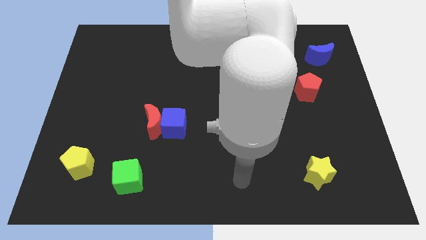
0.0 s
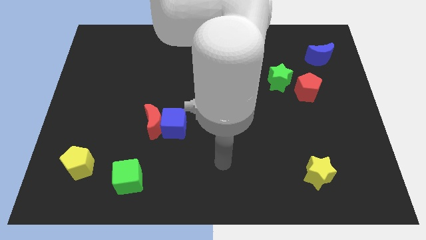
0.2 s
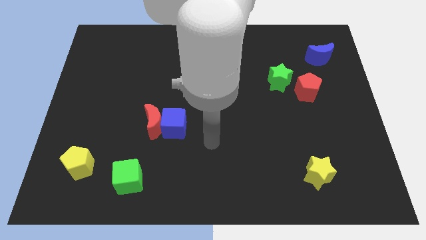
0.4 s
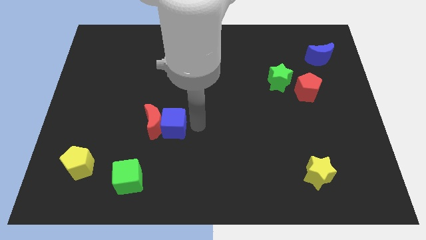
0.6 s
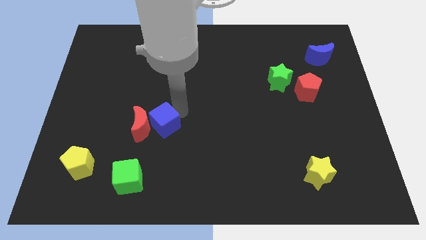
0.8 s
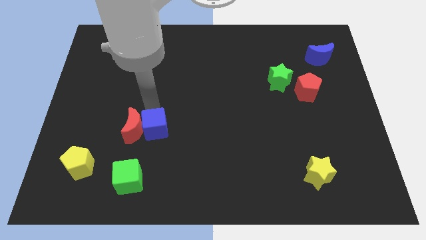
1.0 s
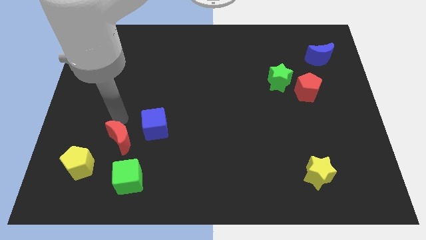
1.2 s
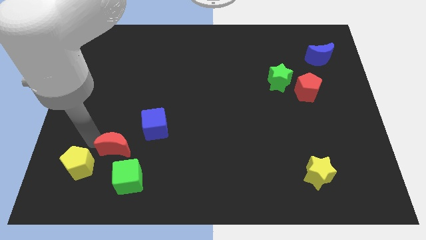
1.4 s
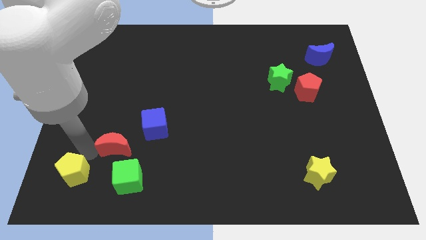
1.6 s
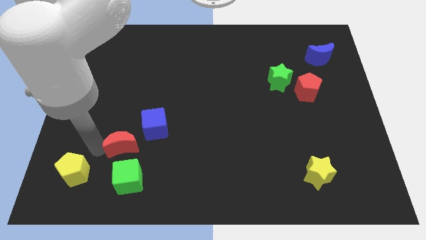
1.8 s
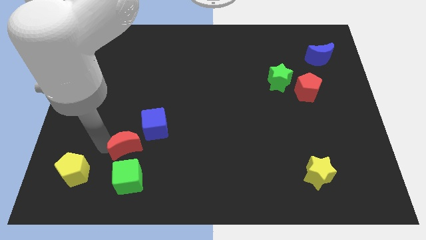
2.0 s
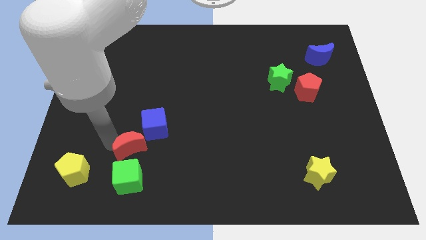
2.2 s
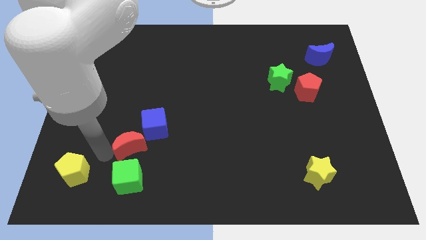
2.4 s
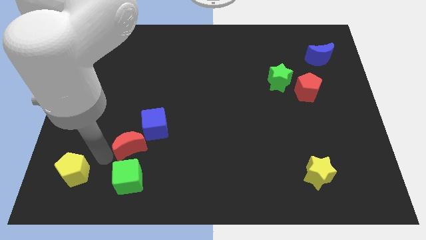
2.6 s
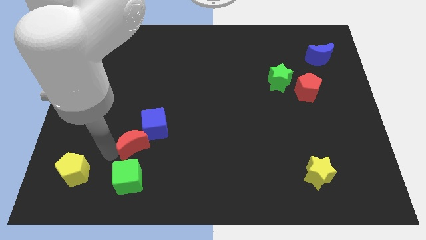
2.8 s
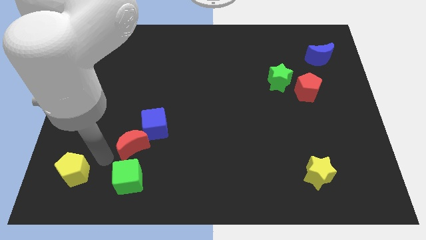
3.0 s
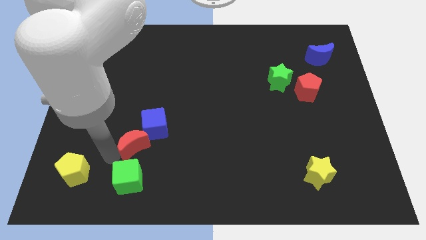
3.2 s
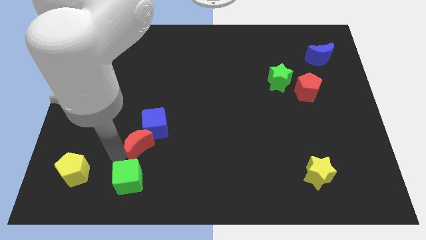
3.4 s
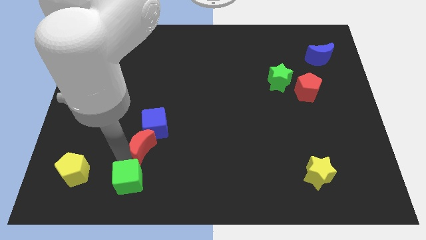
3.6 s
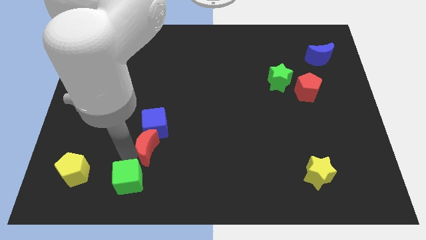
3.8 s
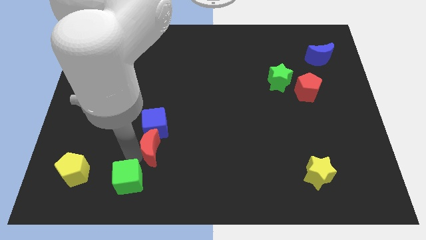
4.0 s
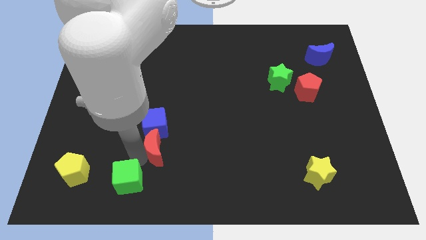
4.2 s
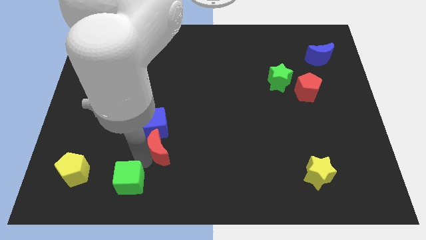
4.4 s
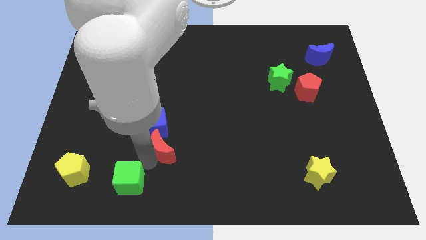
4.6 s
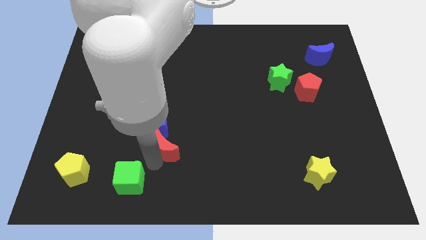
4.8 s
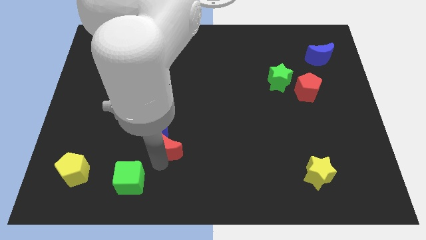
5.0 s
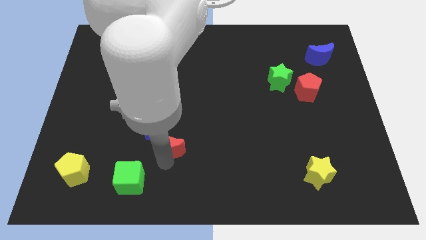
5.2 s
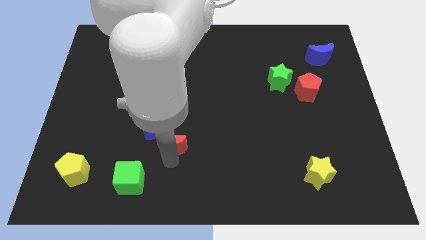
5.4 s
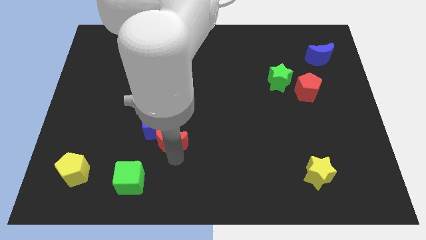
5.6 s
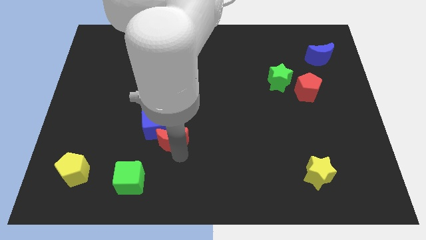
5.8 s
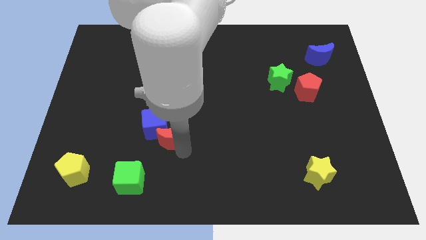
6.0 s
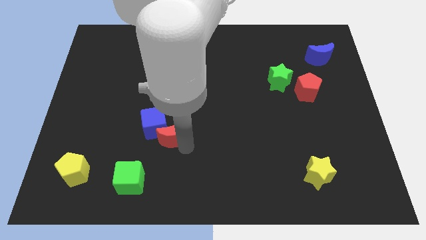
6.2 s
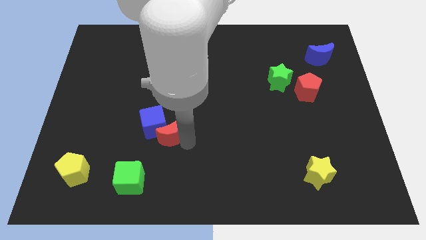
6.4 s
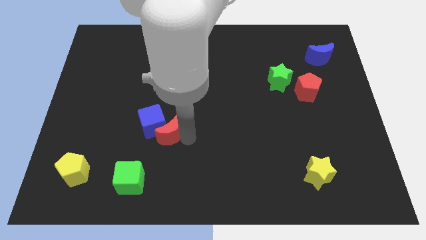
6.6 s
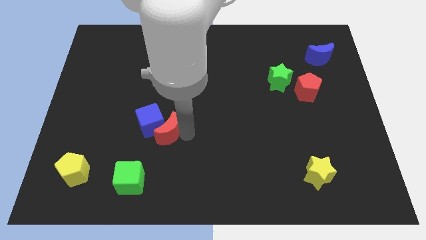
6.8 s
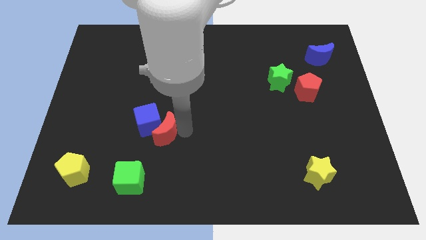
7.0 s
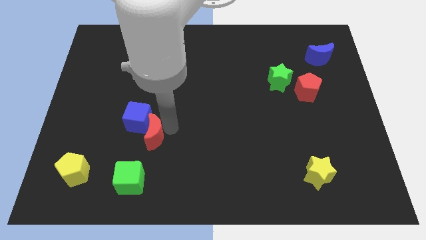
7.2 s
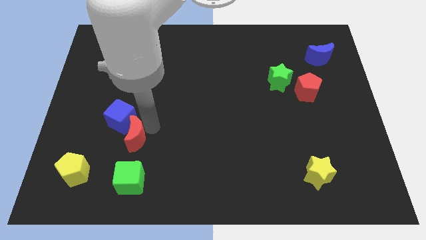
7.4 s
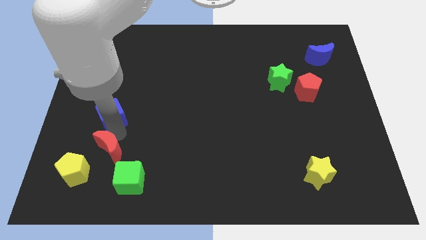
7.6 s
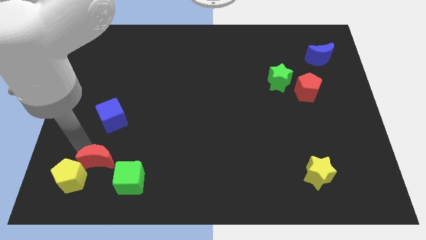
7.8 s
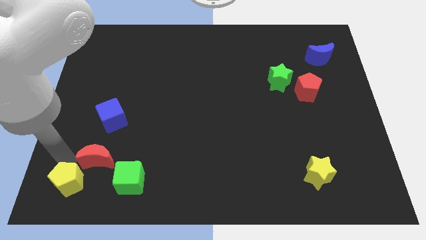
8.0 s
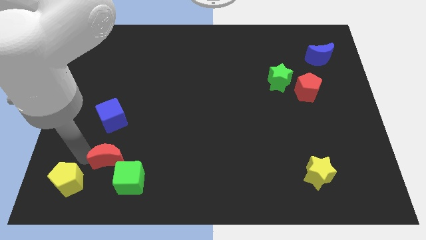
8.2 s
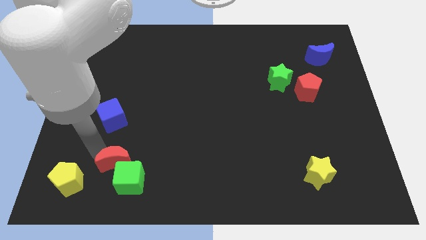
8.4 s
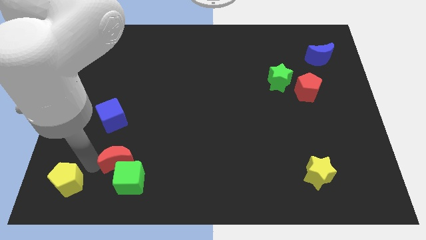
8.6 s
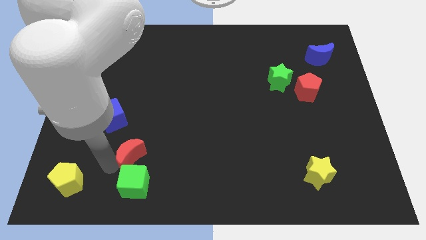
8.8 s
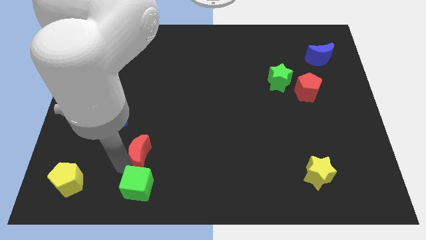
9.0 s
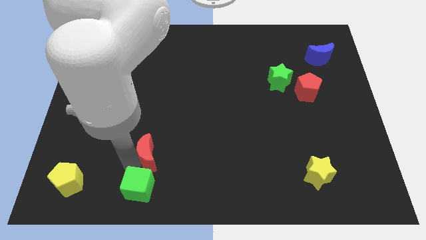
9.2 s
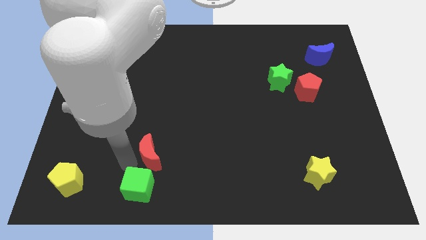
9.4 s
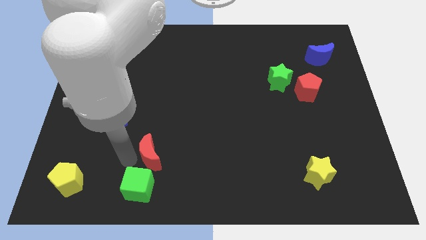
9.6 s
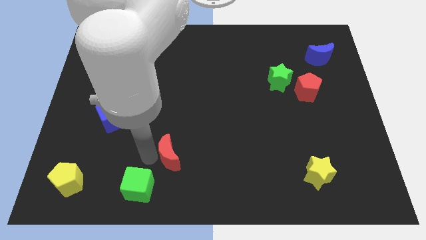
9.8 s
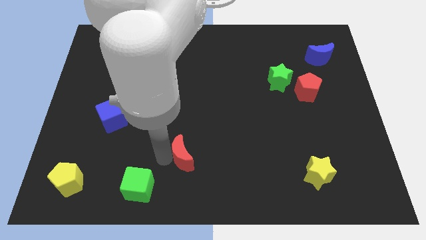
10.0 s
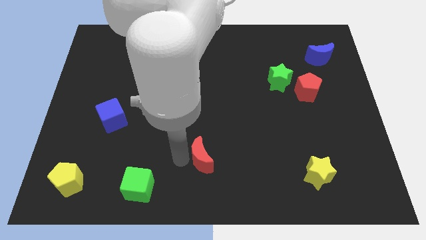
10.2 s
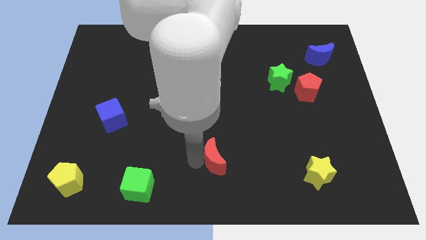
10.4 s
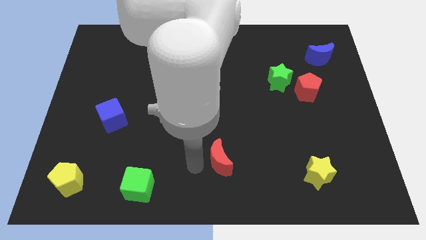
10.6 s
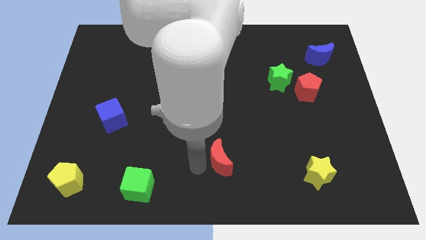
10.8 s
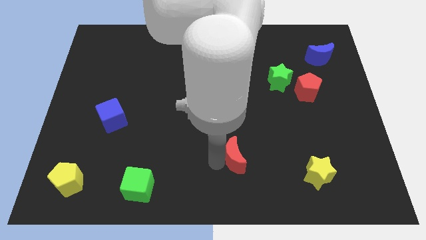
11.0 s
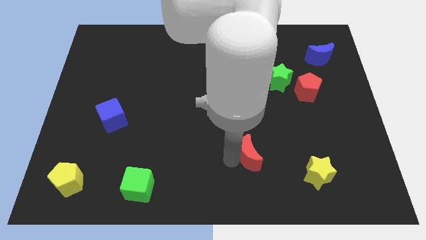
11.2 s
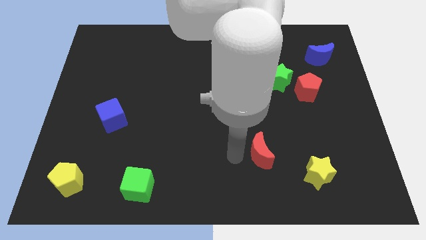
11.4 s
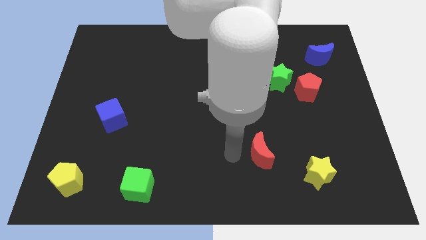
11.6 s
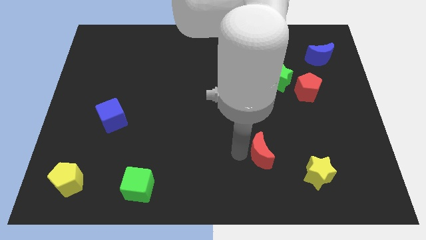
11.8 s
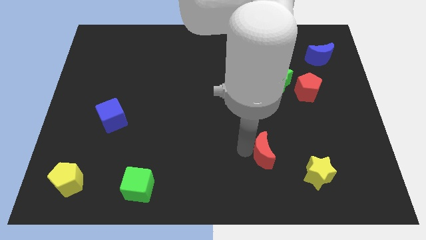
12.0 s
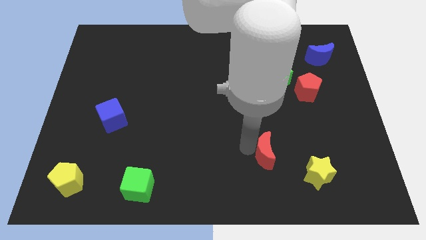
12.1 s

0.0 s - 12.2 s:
slide the red moon to the top left side of the yellow star

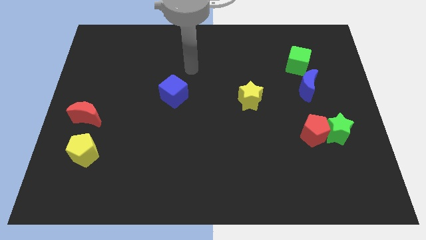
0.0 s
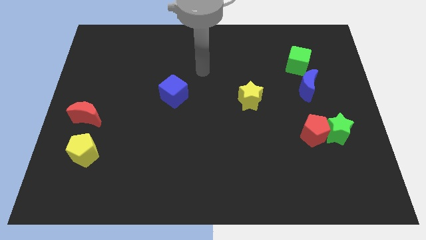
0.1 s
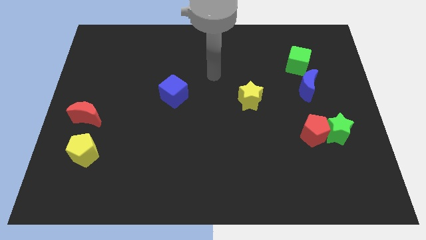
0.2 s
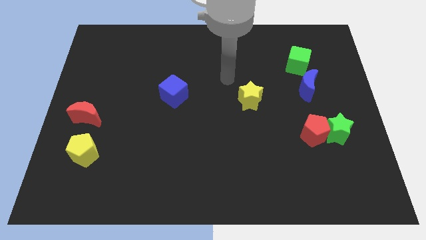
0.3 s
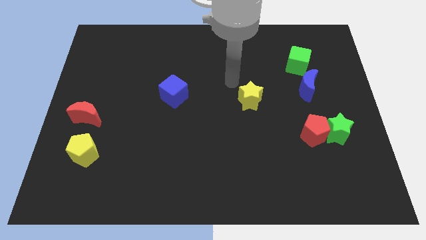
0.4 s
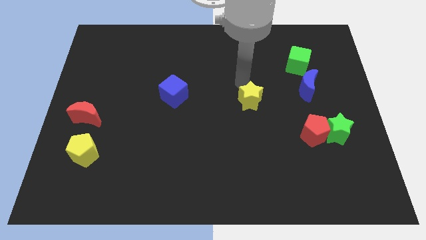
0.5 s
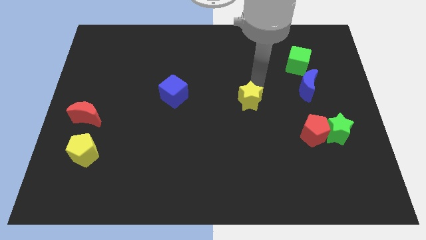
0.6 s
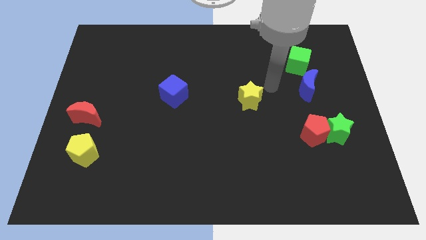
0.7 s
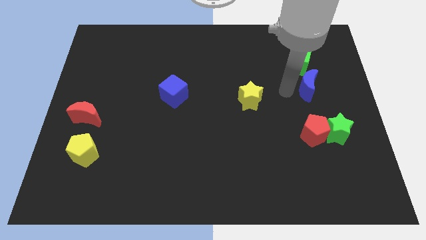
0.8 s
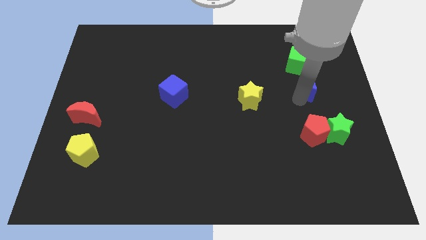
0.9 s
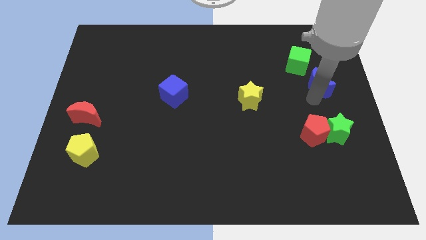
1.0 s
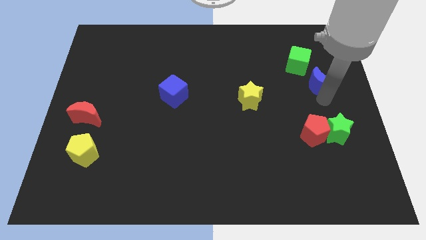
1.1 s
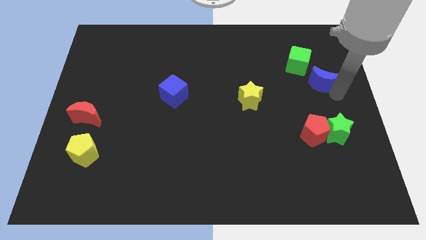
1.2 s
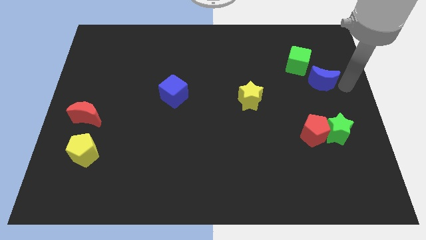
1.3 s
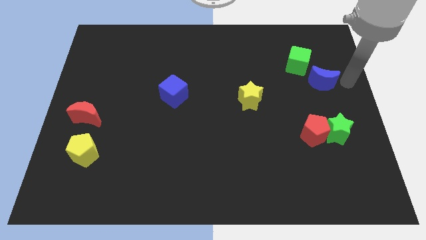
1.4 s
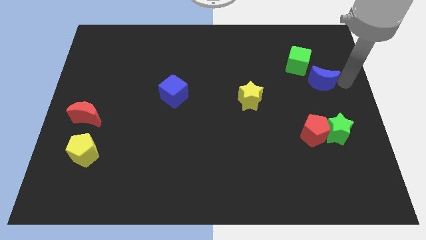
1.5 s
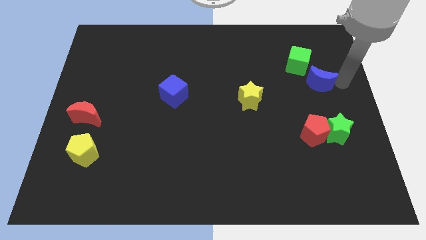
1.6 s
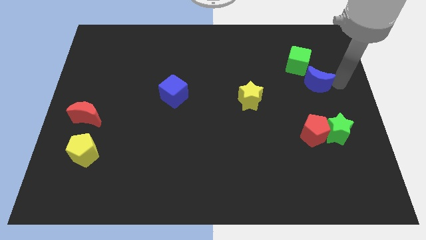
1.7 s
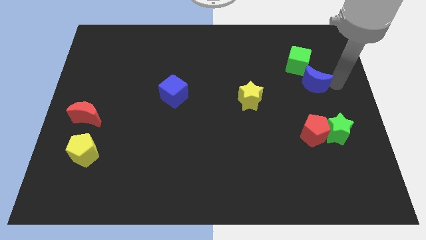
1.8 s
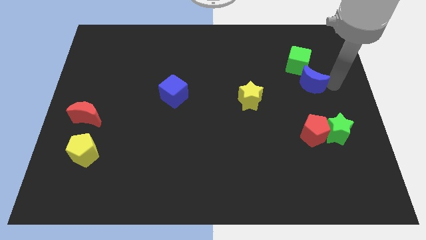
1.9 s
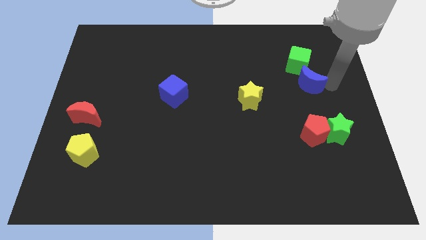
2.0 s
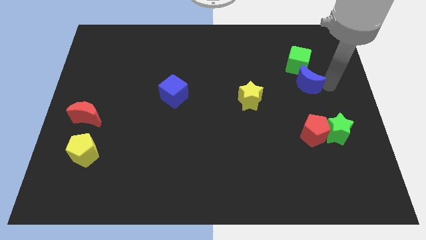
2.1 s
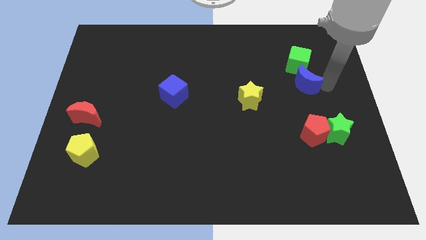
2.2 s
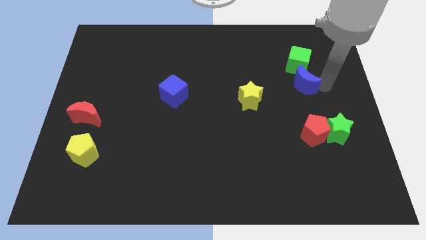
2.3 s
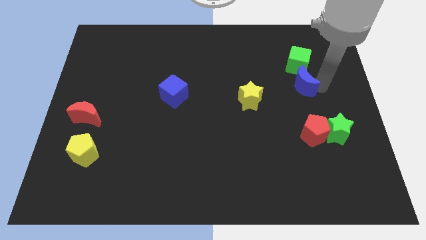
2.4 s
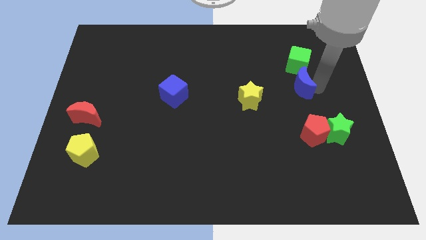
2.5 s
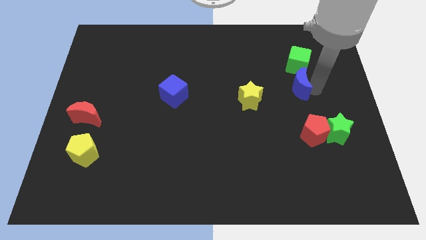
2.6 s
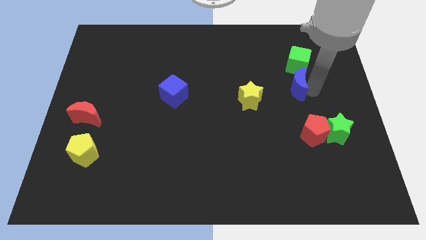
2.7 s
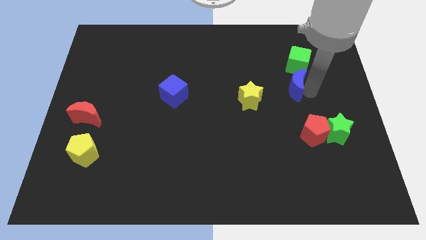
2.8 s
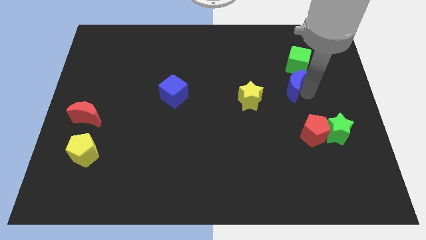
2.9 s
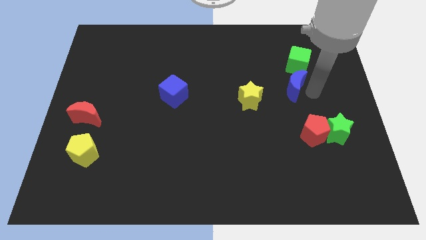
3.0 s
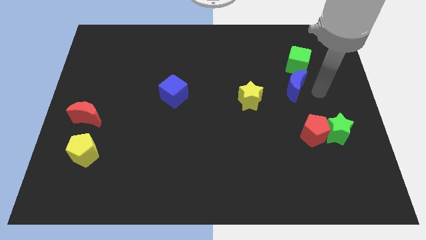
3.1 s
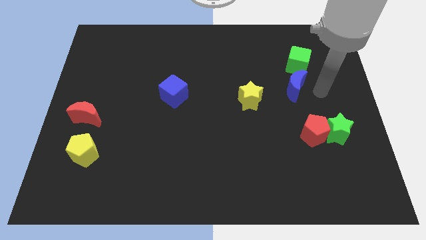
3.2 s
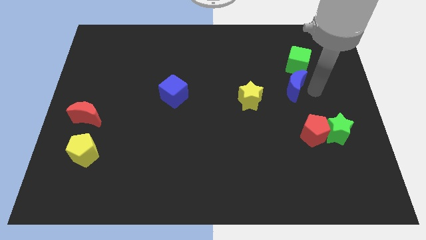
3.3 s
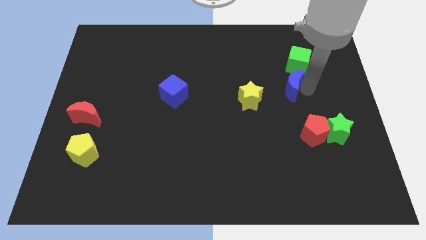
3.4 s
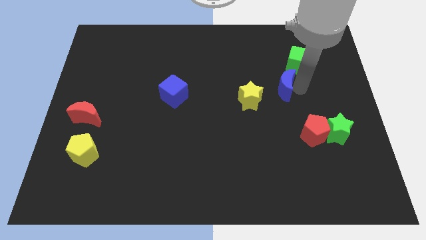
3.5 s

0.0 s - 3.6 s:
move the blue moon to the top right of the yellow star
